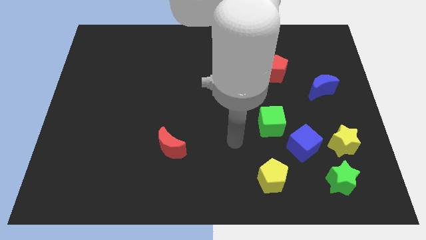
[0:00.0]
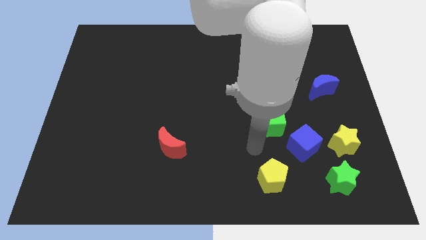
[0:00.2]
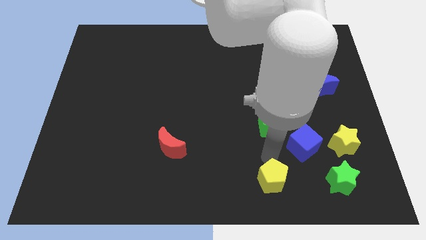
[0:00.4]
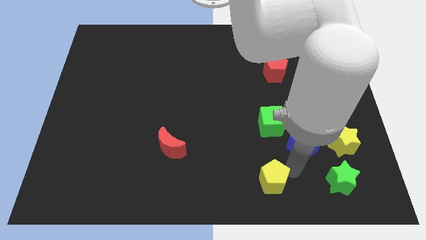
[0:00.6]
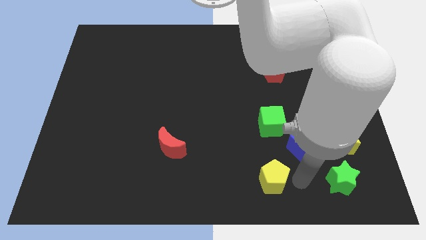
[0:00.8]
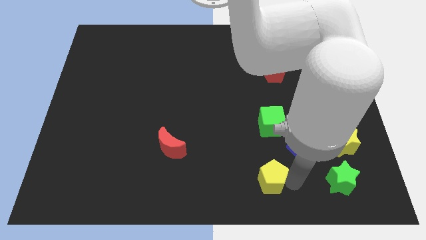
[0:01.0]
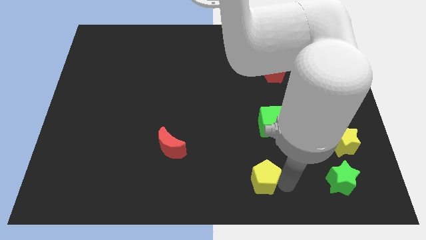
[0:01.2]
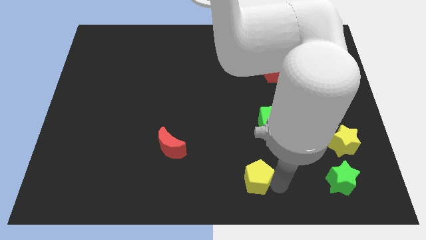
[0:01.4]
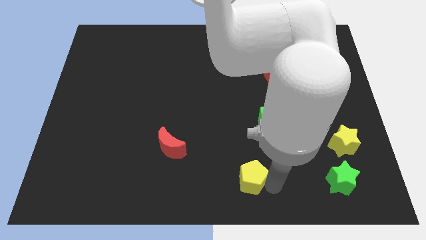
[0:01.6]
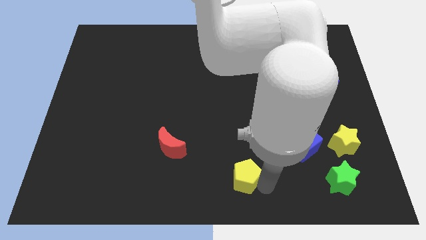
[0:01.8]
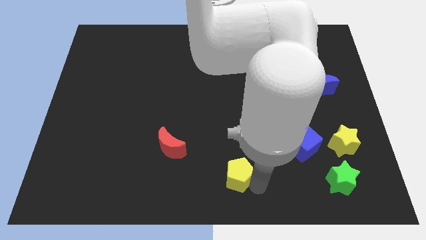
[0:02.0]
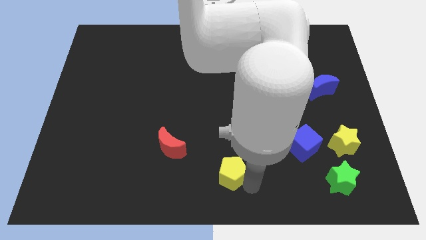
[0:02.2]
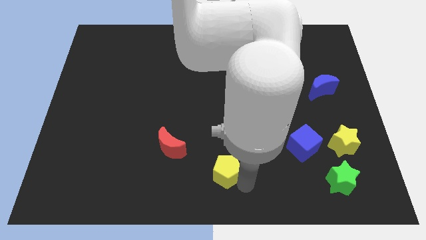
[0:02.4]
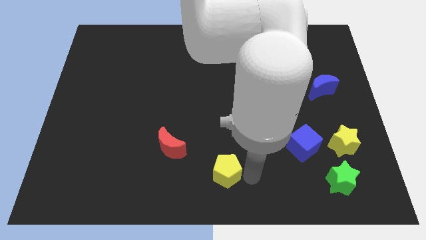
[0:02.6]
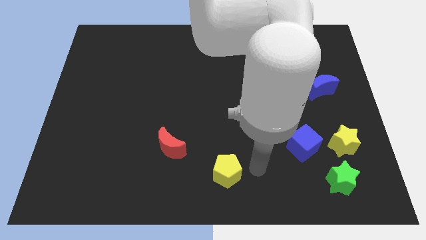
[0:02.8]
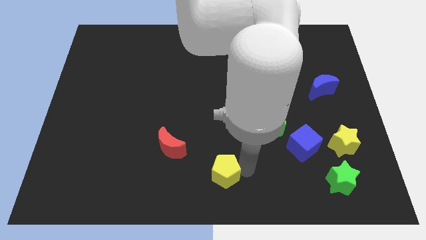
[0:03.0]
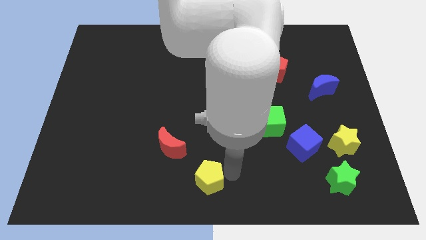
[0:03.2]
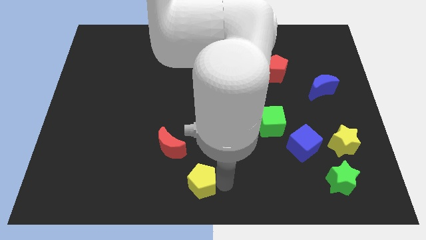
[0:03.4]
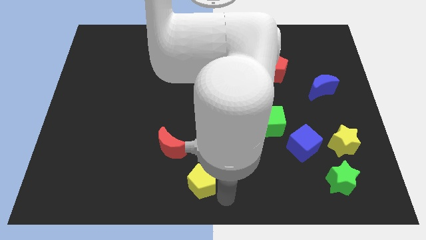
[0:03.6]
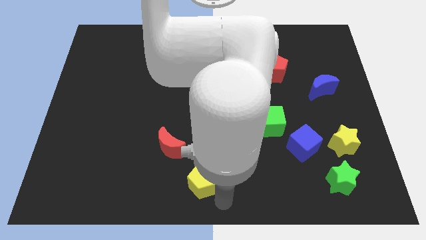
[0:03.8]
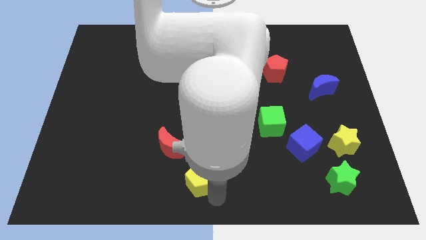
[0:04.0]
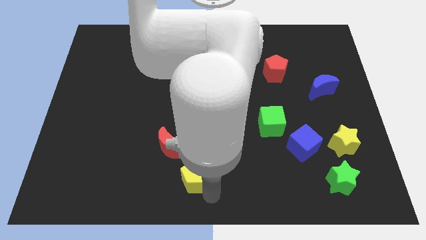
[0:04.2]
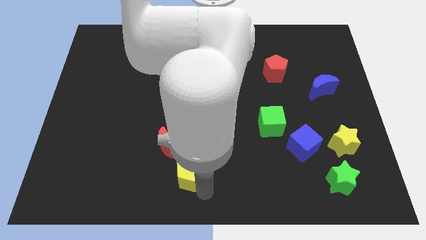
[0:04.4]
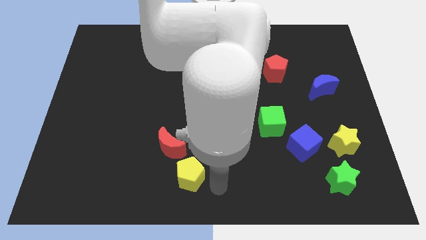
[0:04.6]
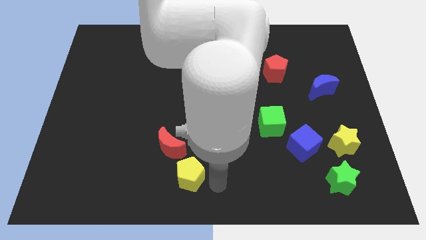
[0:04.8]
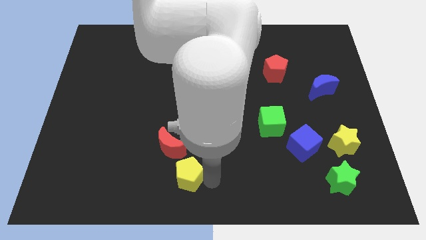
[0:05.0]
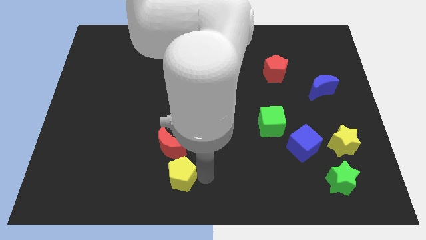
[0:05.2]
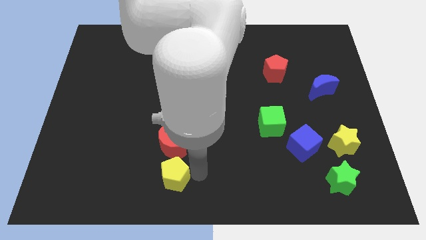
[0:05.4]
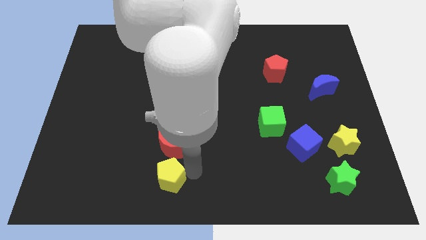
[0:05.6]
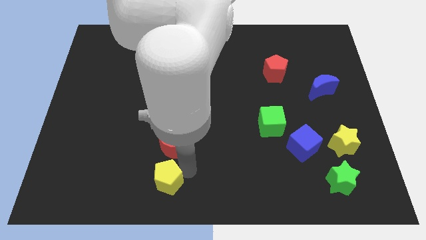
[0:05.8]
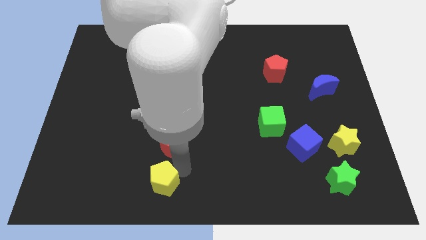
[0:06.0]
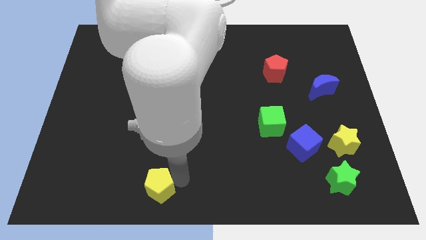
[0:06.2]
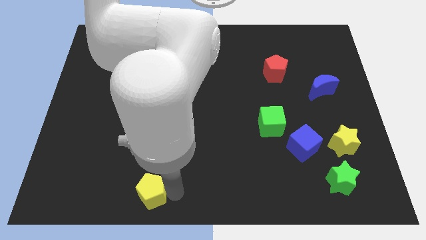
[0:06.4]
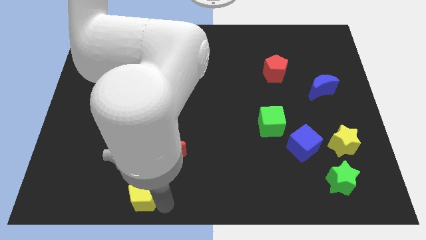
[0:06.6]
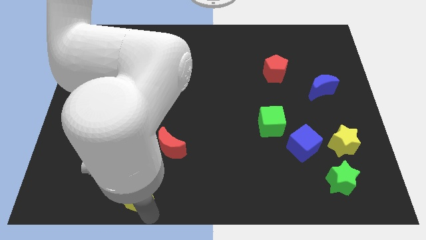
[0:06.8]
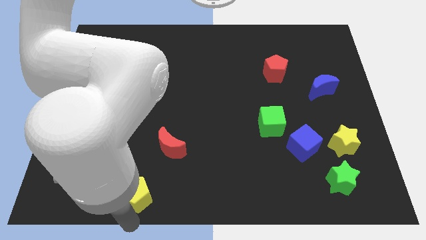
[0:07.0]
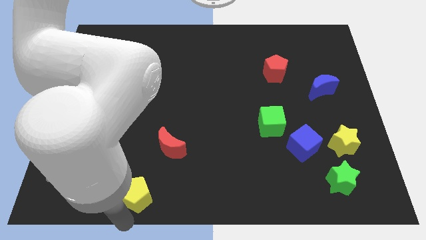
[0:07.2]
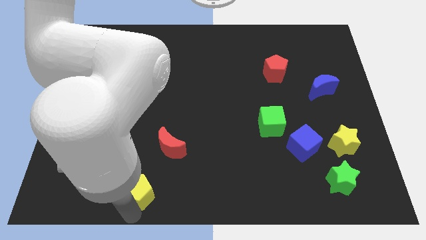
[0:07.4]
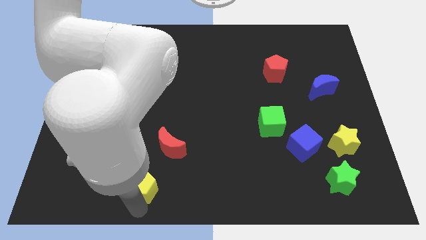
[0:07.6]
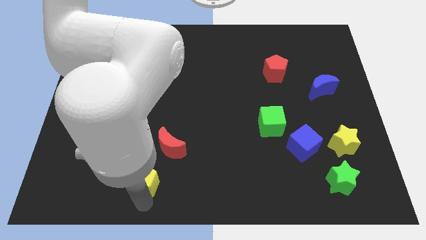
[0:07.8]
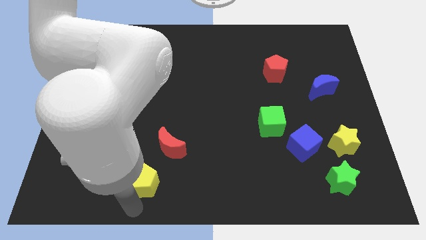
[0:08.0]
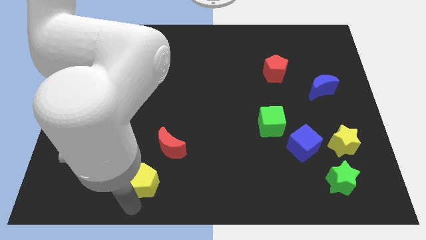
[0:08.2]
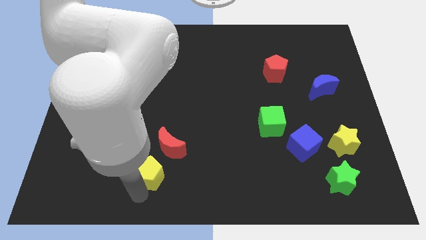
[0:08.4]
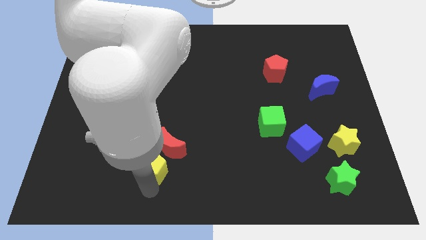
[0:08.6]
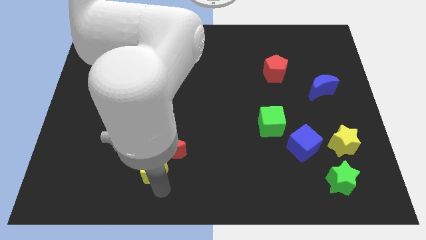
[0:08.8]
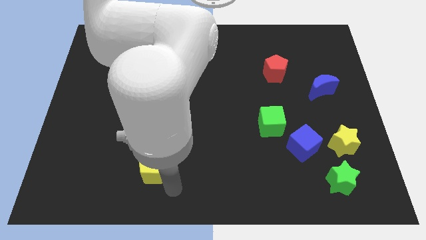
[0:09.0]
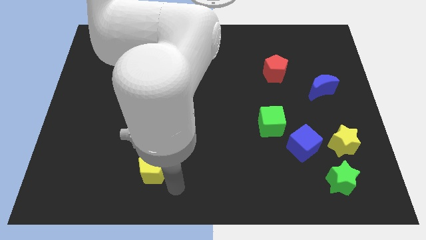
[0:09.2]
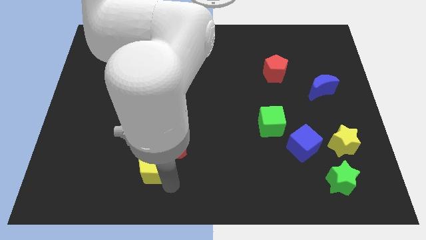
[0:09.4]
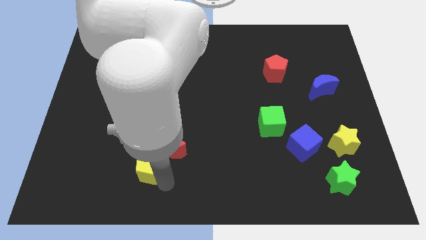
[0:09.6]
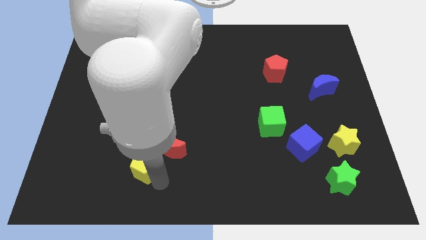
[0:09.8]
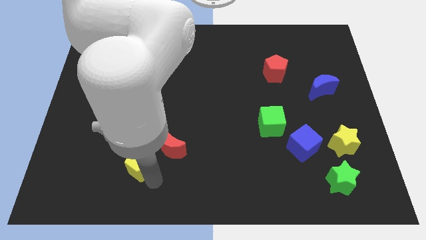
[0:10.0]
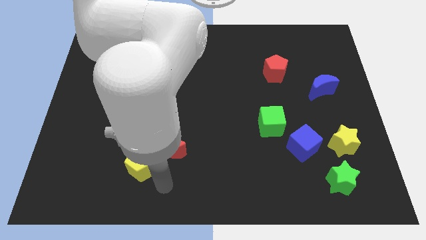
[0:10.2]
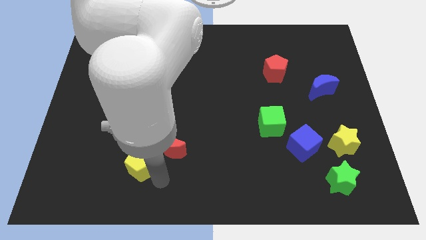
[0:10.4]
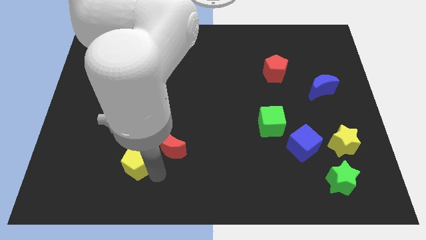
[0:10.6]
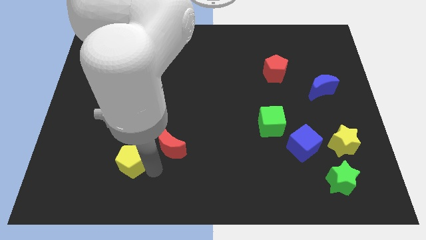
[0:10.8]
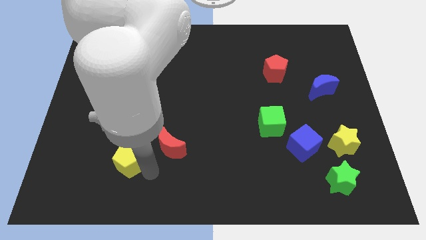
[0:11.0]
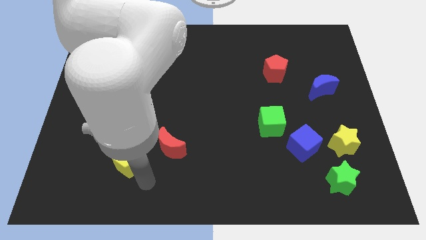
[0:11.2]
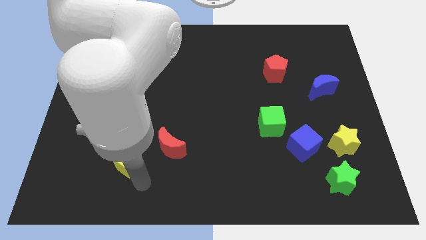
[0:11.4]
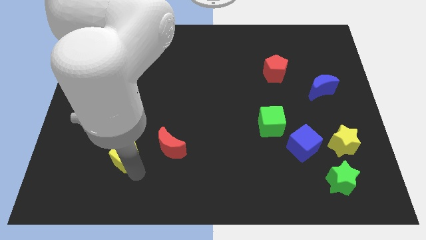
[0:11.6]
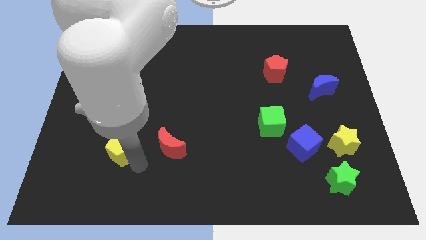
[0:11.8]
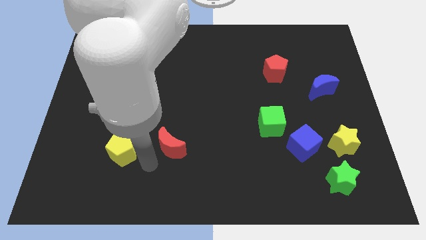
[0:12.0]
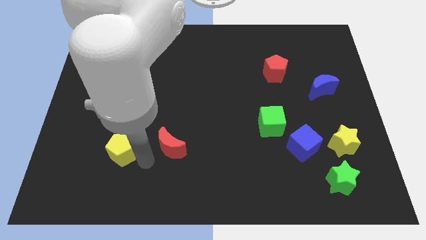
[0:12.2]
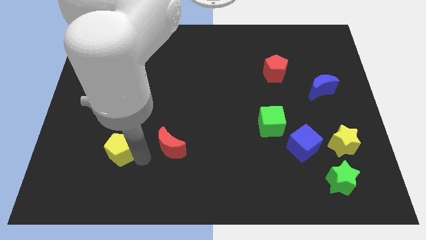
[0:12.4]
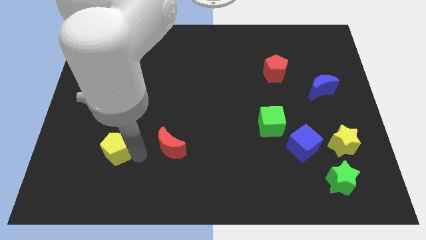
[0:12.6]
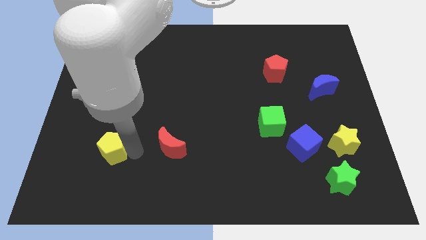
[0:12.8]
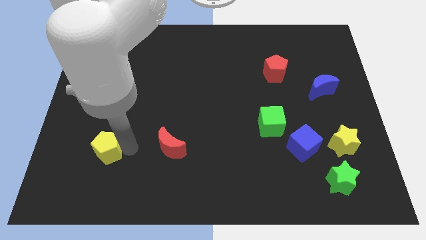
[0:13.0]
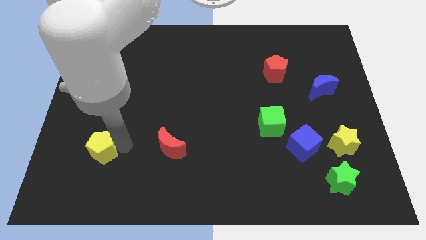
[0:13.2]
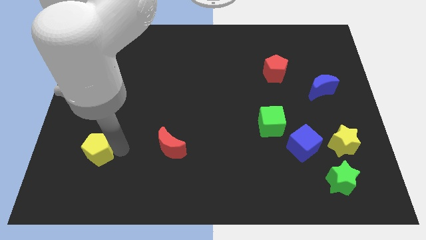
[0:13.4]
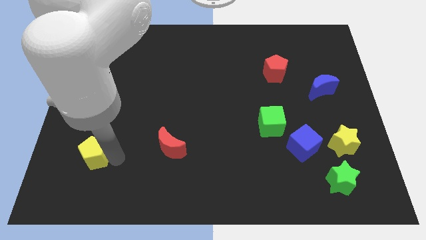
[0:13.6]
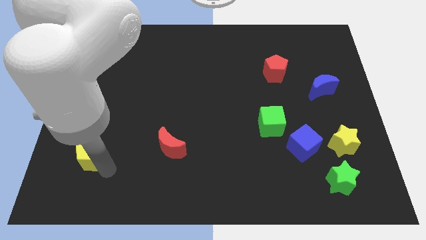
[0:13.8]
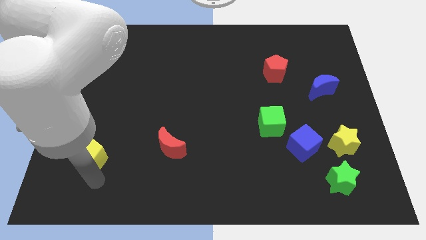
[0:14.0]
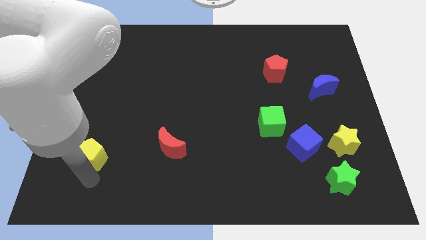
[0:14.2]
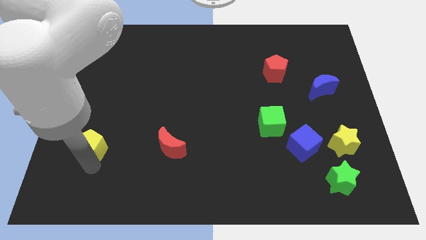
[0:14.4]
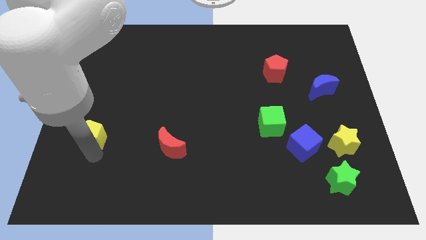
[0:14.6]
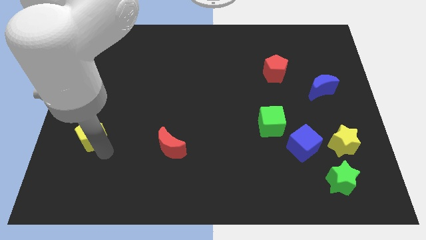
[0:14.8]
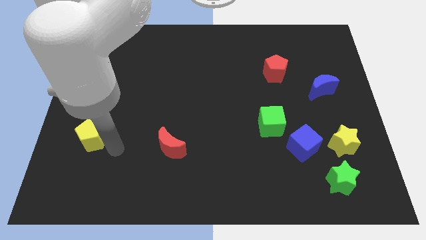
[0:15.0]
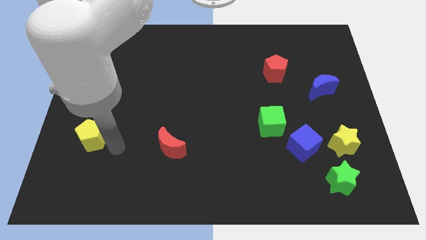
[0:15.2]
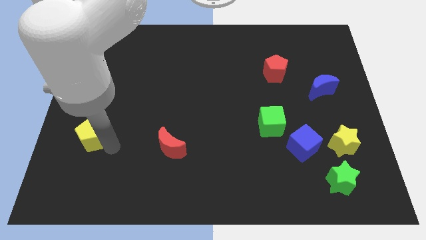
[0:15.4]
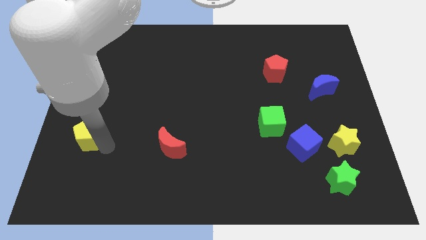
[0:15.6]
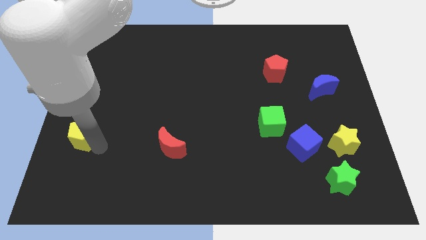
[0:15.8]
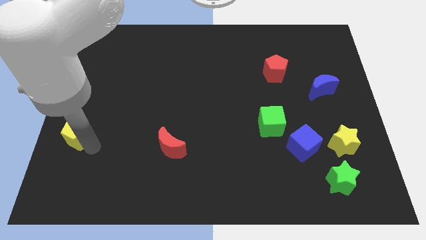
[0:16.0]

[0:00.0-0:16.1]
push the yellow pentagon to the left side
